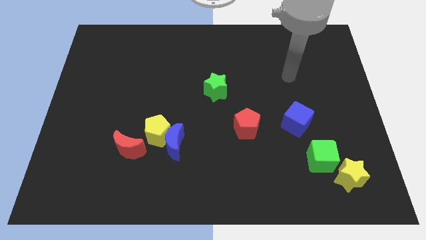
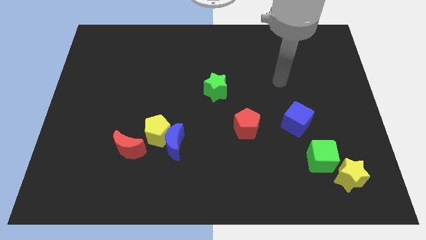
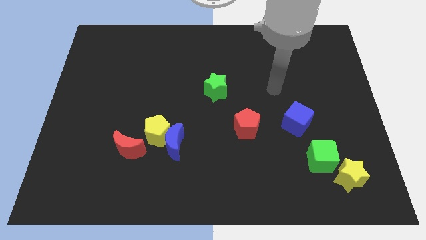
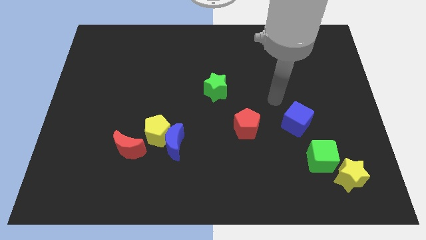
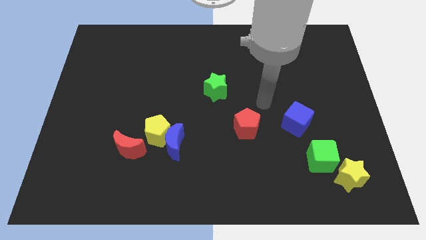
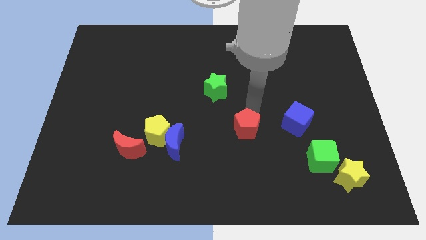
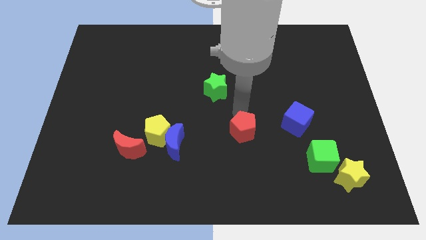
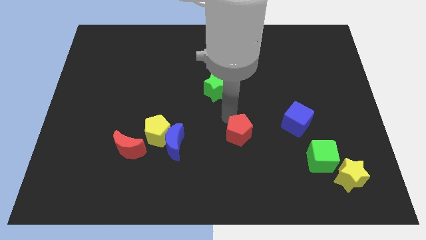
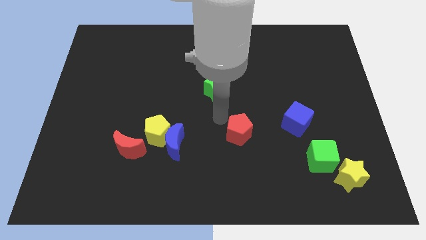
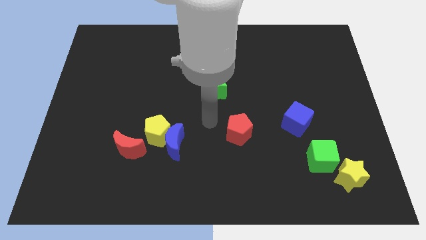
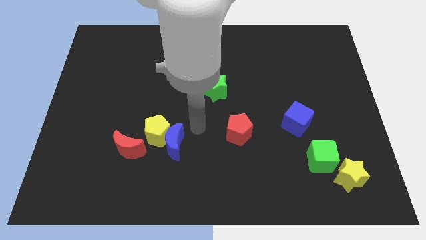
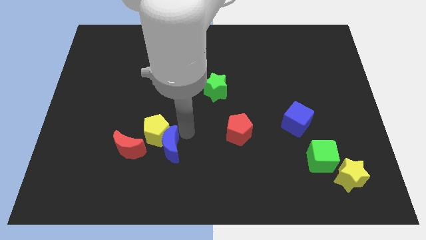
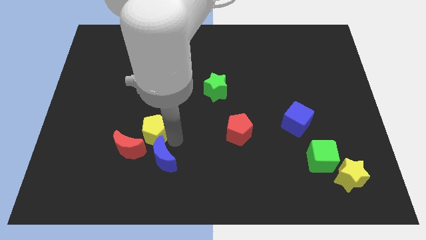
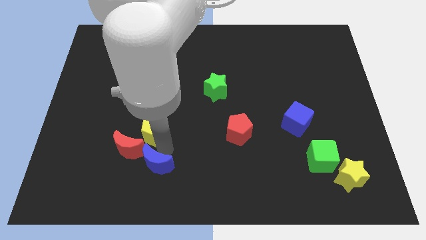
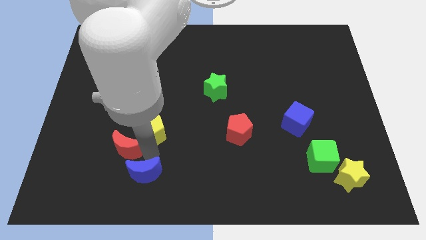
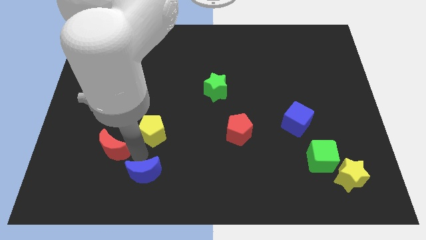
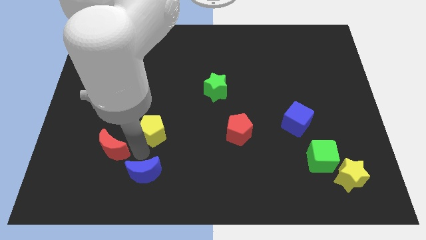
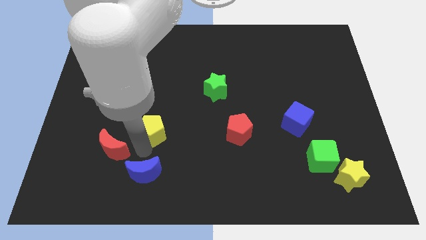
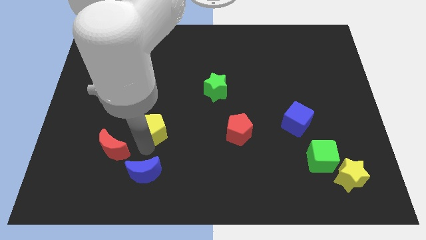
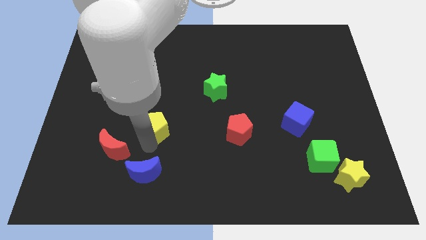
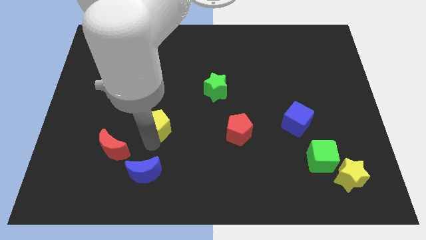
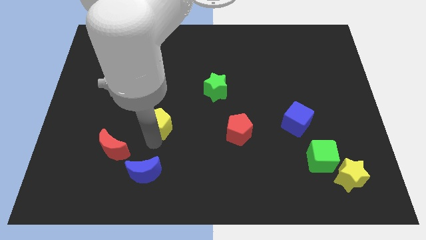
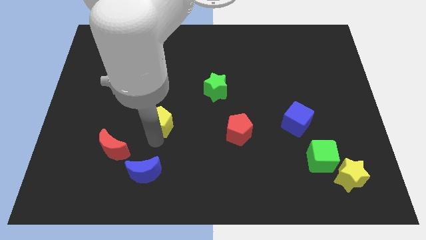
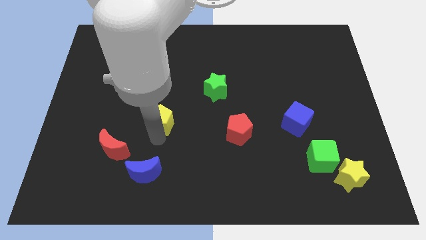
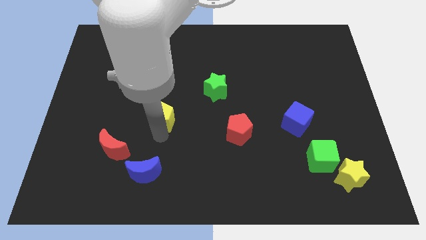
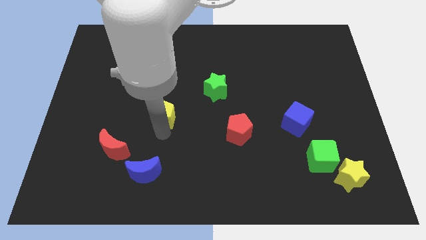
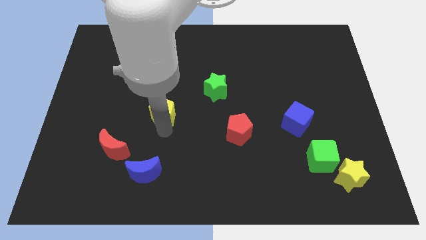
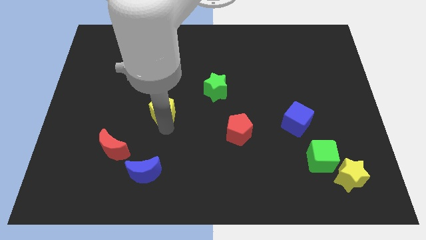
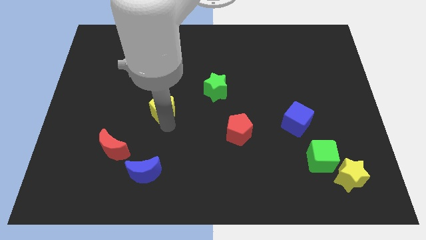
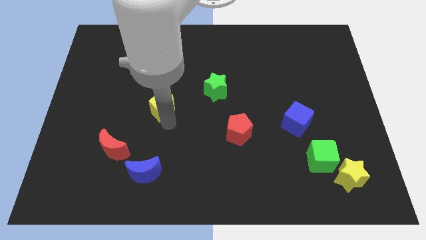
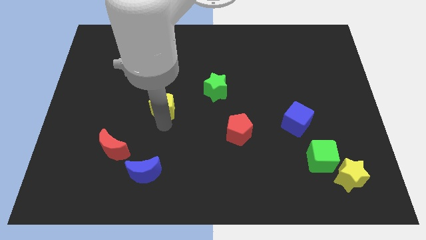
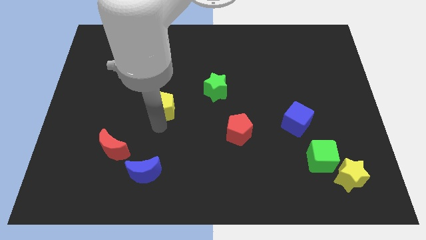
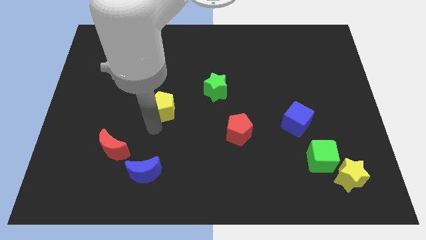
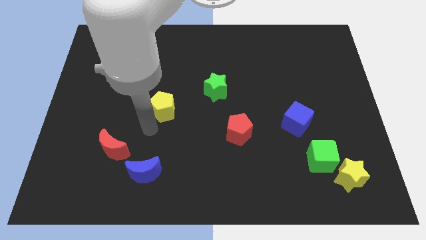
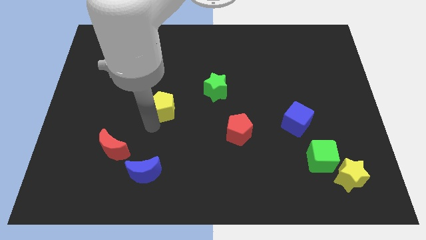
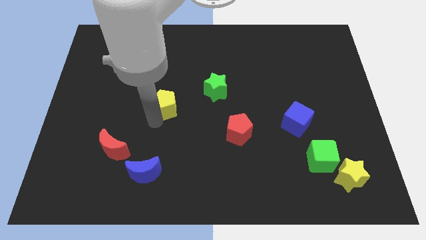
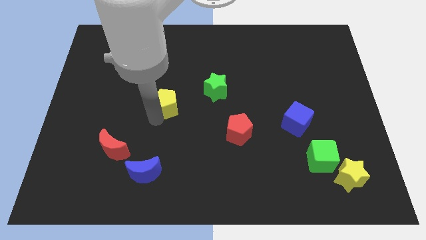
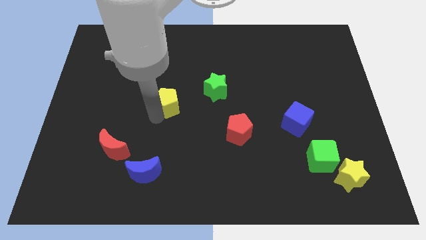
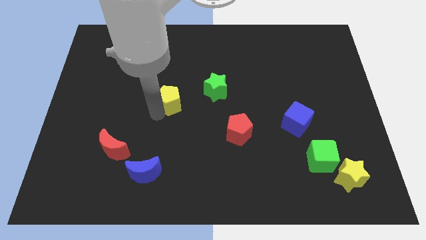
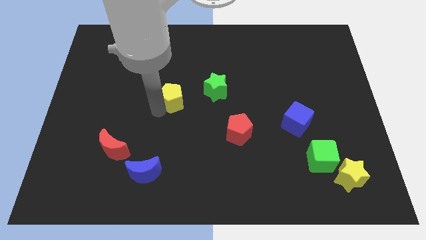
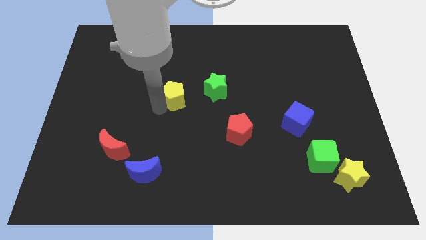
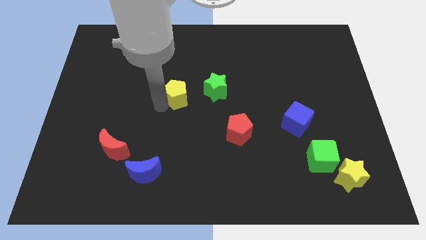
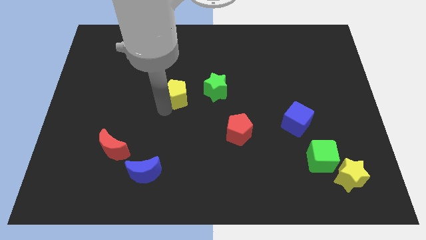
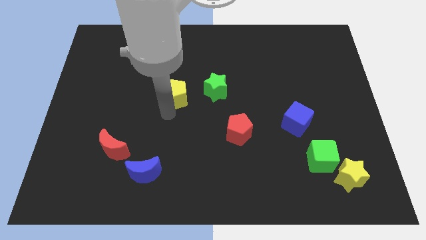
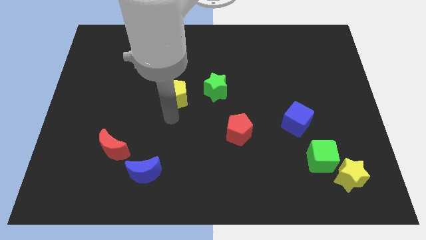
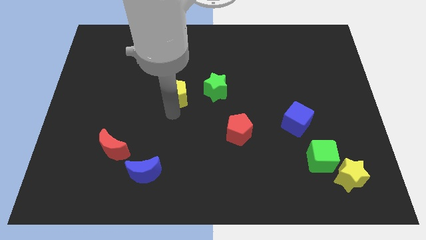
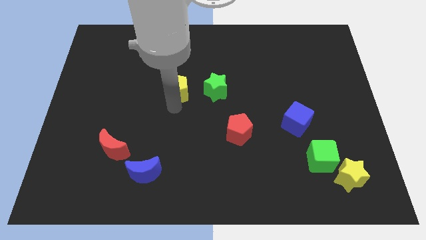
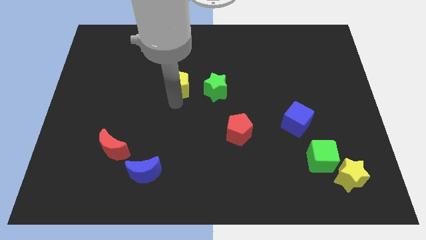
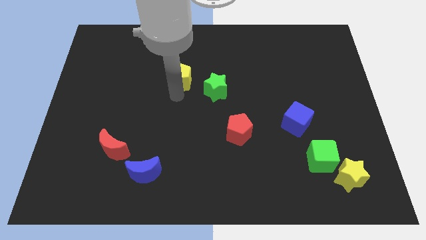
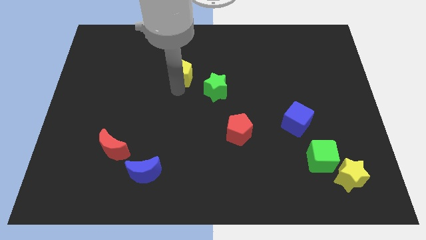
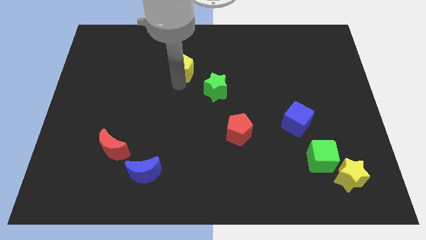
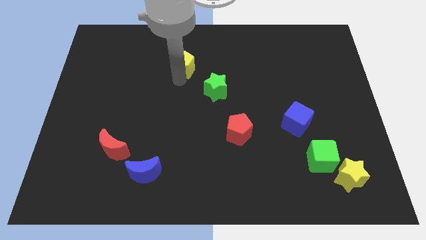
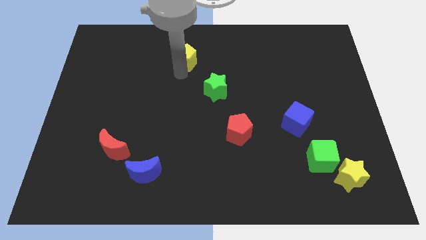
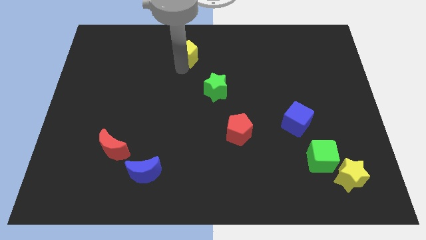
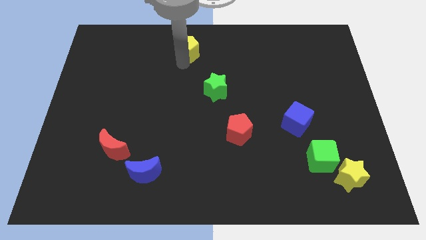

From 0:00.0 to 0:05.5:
move the yellow pentagon to the top side

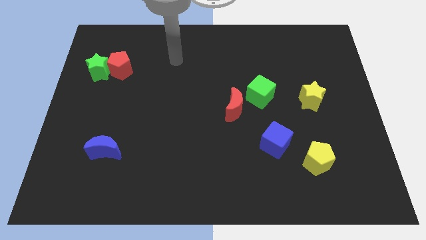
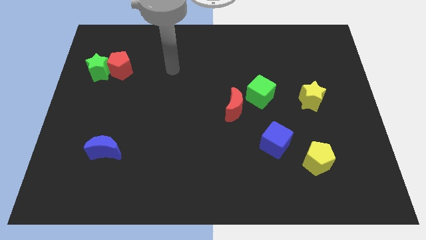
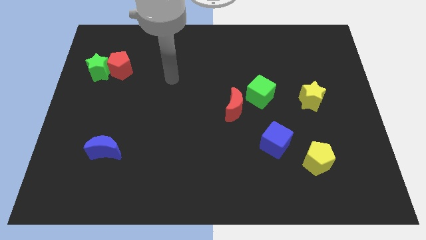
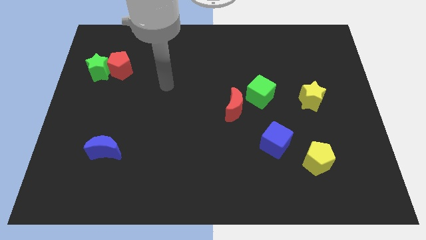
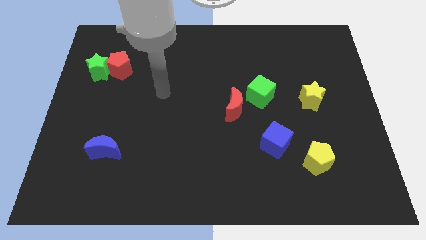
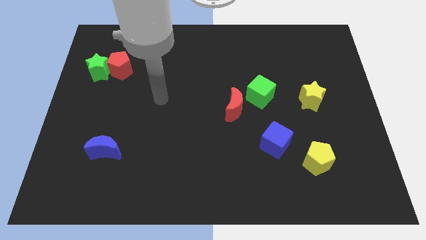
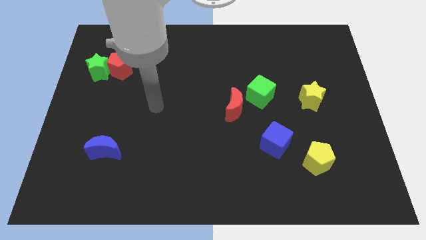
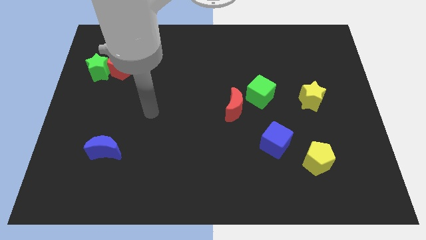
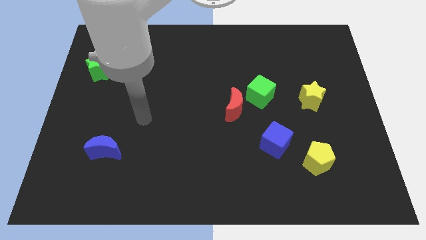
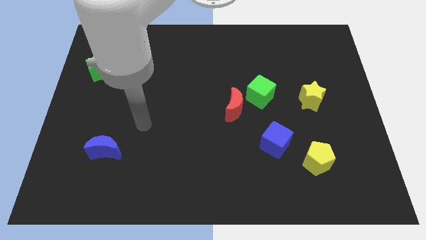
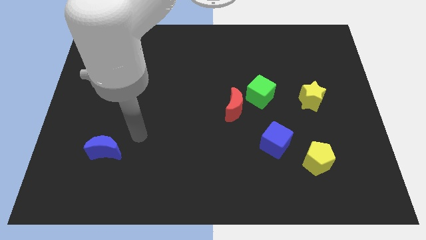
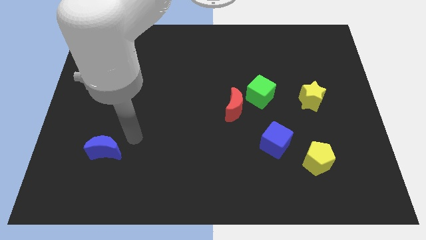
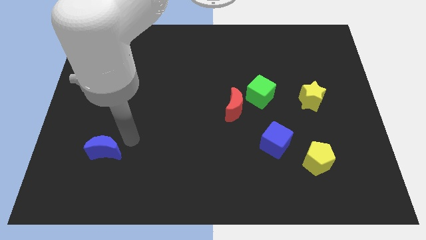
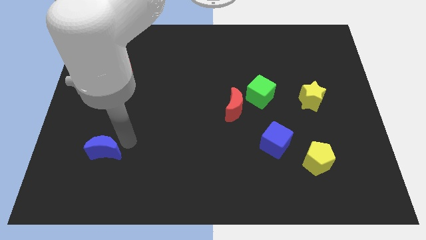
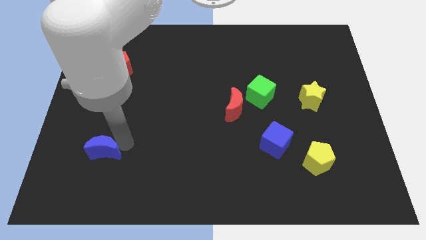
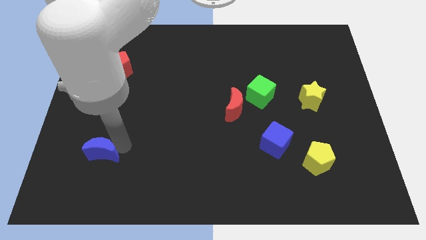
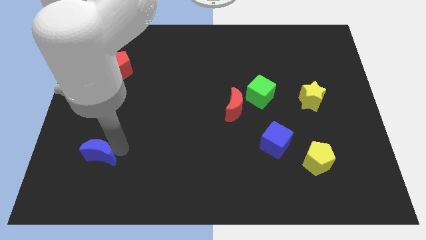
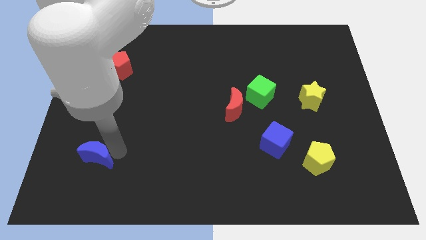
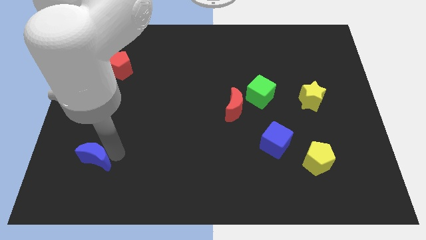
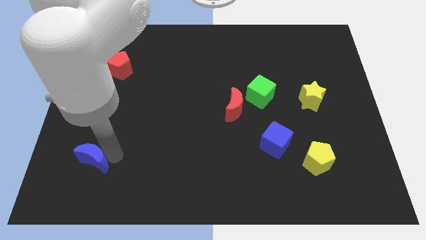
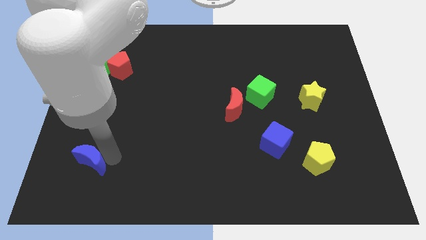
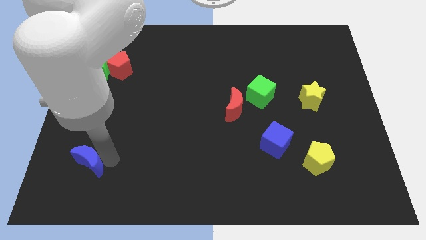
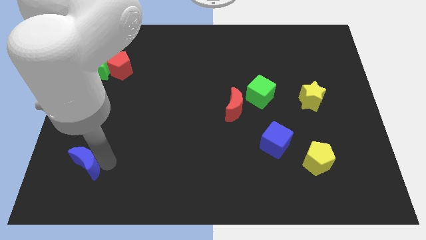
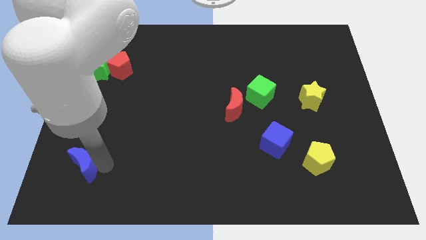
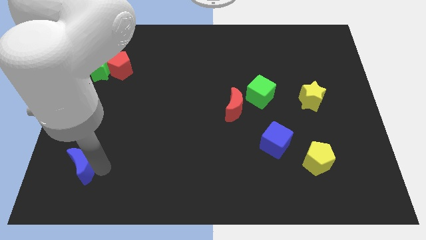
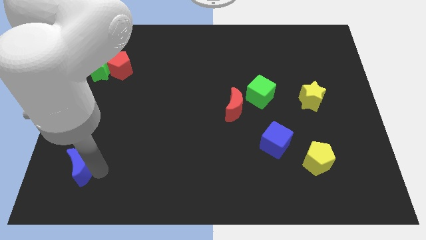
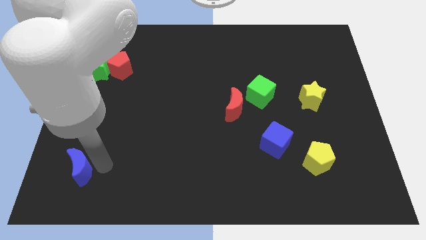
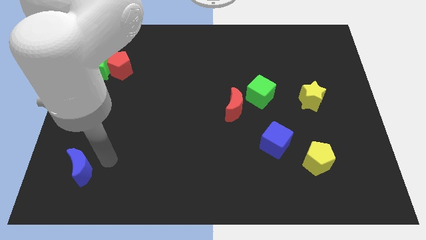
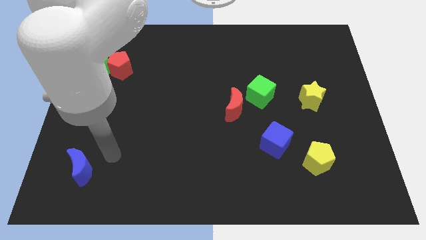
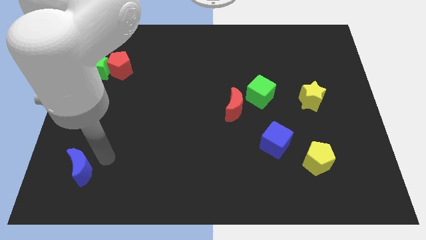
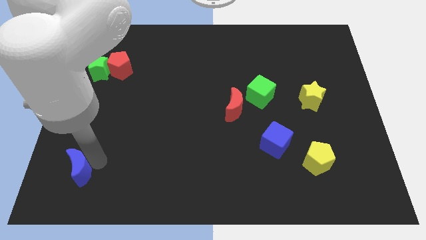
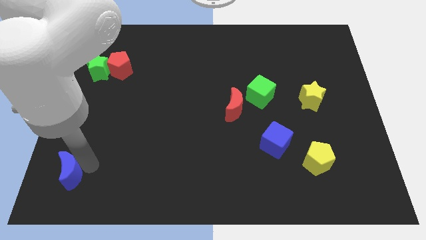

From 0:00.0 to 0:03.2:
push the blue moon to the lower left corner
